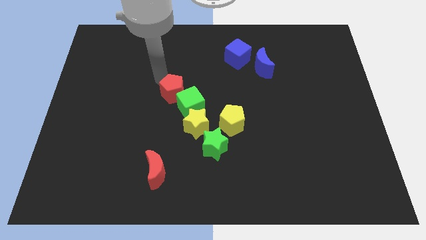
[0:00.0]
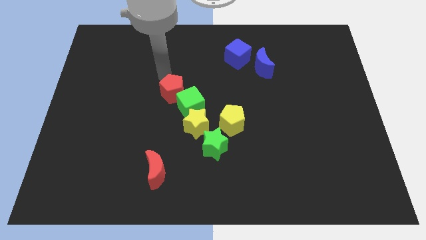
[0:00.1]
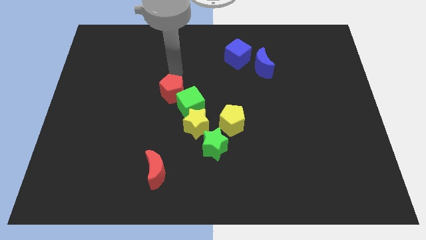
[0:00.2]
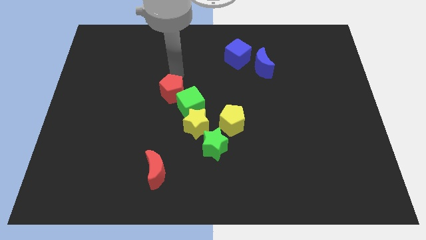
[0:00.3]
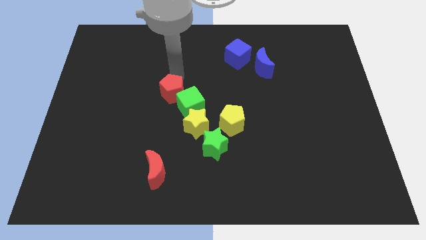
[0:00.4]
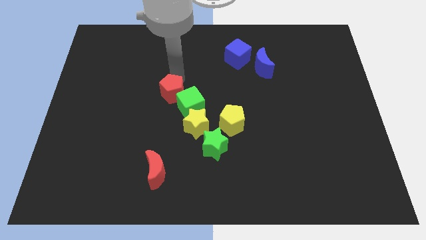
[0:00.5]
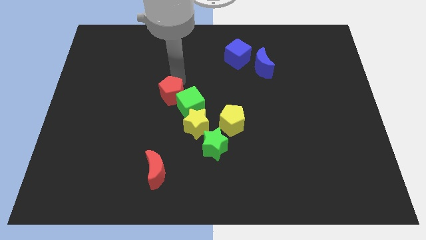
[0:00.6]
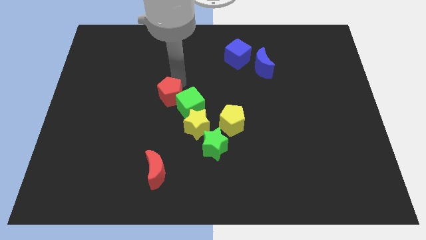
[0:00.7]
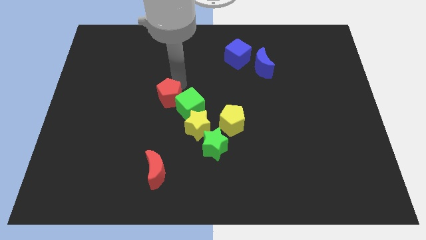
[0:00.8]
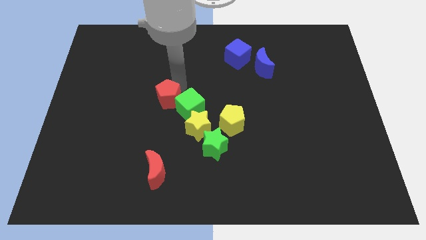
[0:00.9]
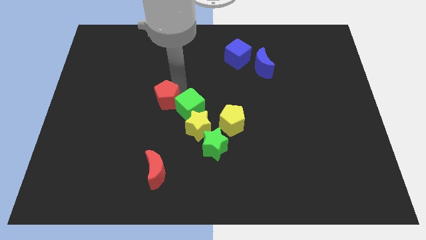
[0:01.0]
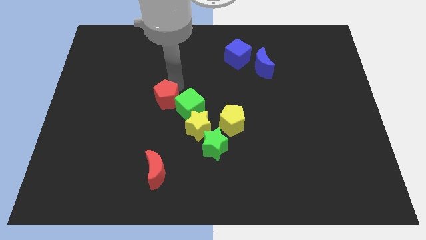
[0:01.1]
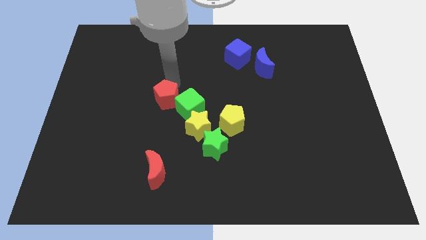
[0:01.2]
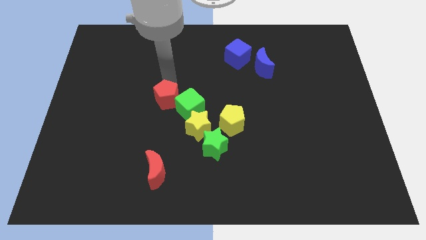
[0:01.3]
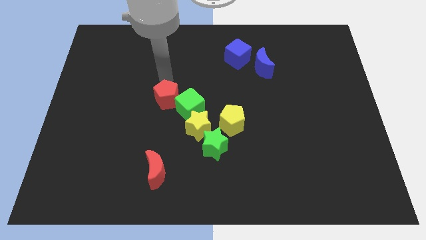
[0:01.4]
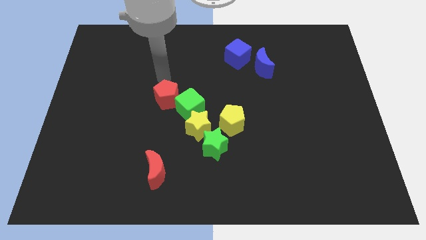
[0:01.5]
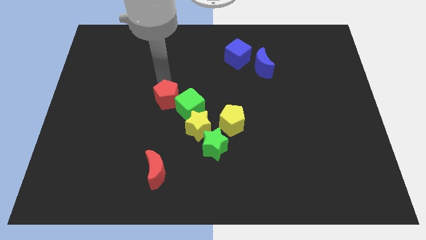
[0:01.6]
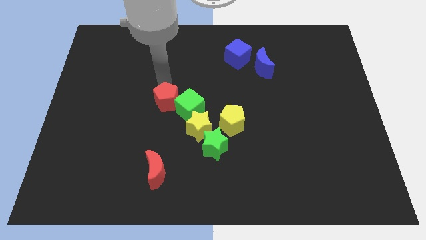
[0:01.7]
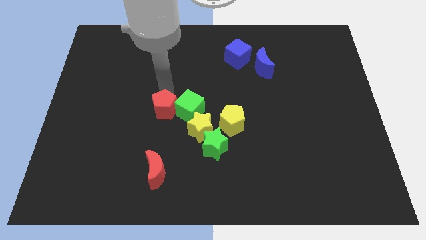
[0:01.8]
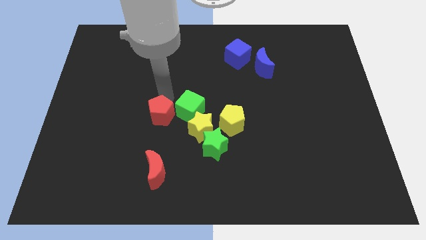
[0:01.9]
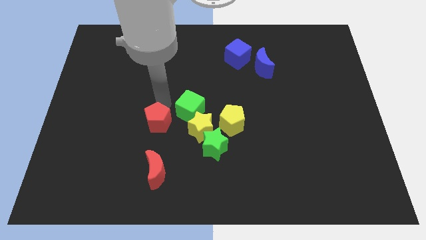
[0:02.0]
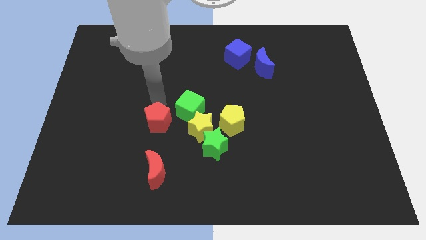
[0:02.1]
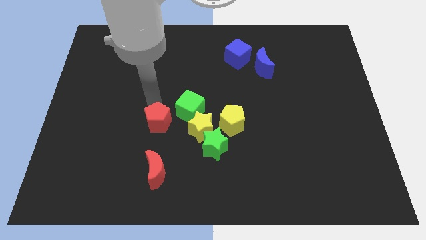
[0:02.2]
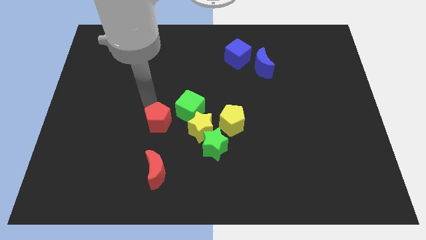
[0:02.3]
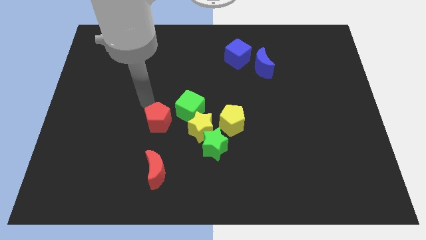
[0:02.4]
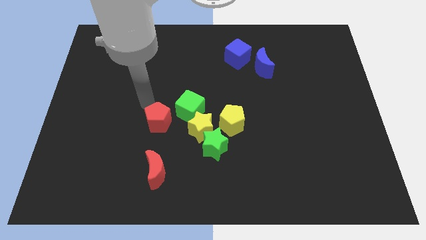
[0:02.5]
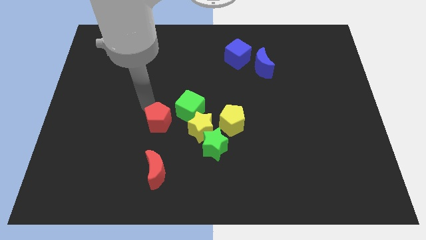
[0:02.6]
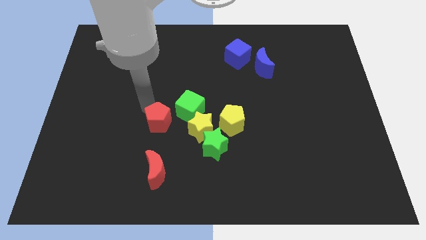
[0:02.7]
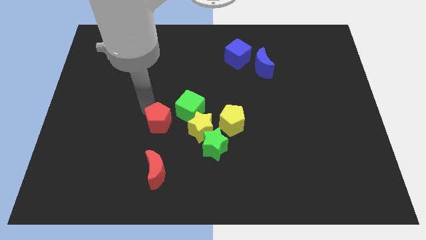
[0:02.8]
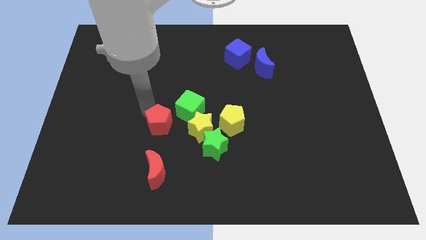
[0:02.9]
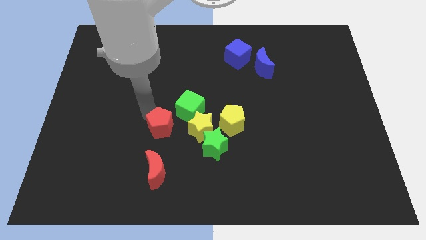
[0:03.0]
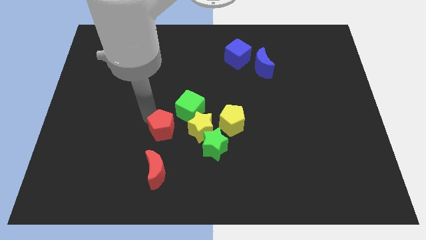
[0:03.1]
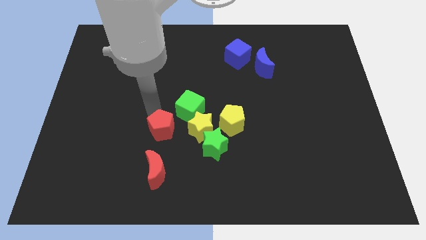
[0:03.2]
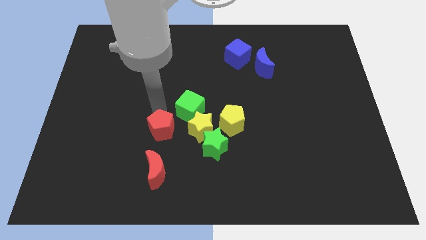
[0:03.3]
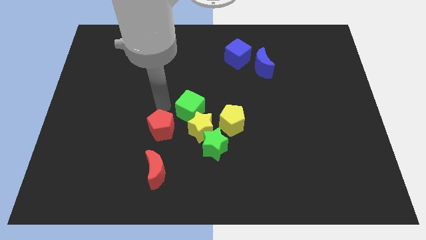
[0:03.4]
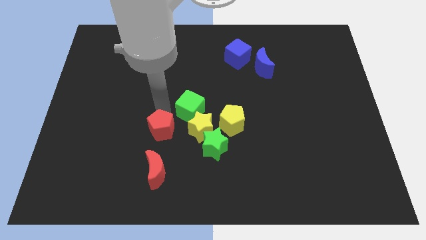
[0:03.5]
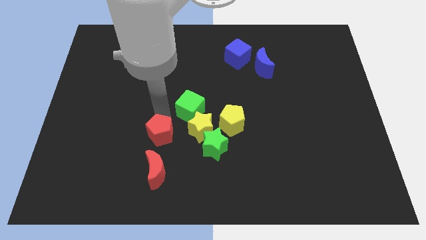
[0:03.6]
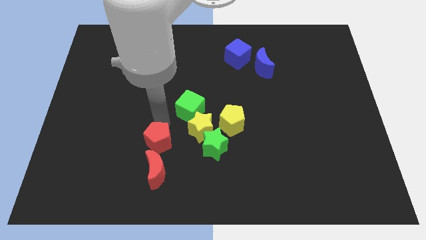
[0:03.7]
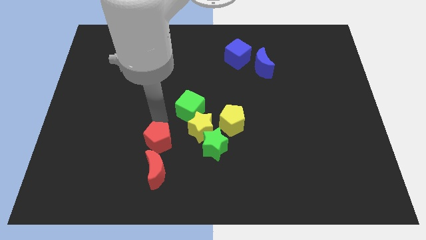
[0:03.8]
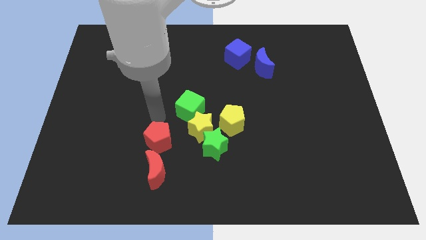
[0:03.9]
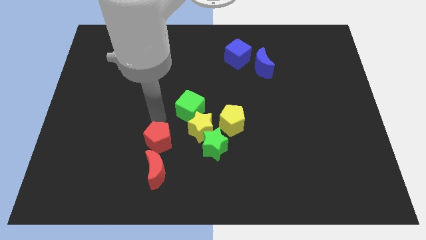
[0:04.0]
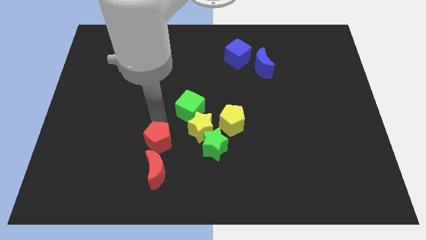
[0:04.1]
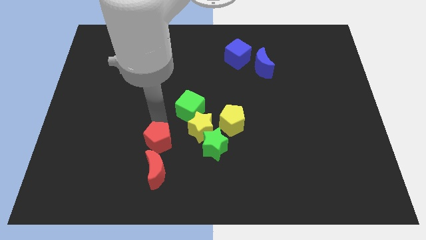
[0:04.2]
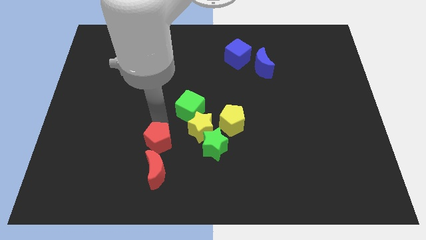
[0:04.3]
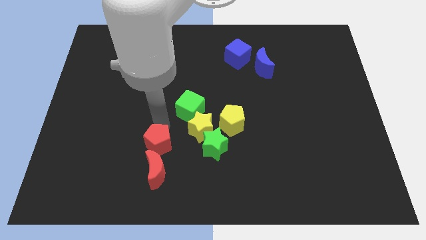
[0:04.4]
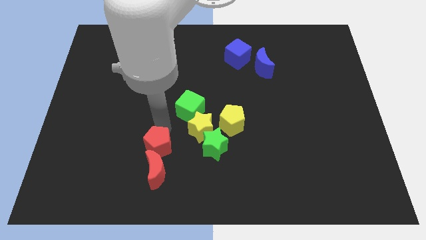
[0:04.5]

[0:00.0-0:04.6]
move the red pentagon to the red moon

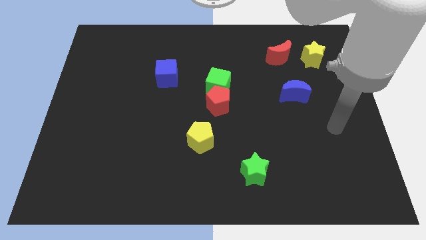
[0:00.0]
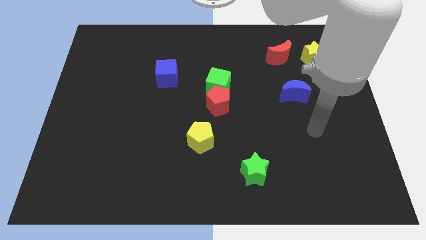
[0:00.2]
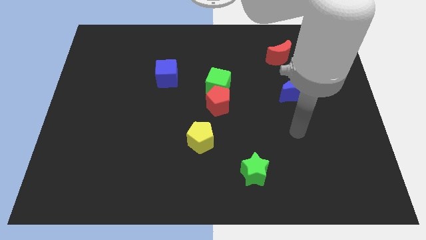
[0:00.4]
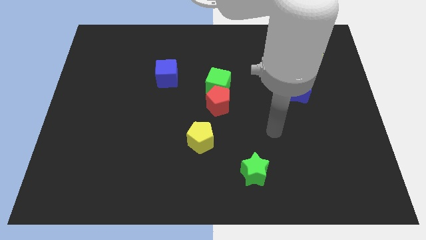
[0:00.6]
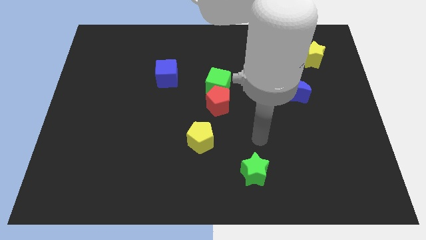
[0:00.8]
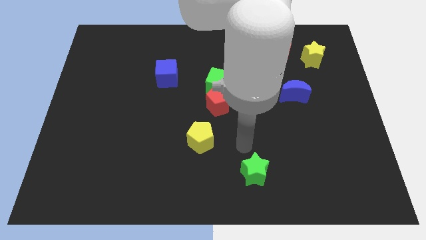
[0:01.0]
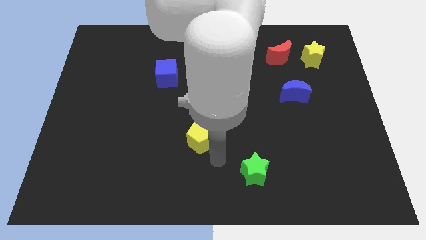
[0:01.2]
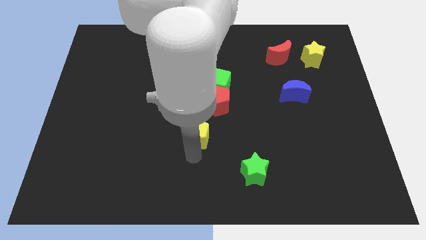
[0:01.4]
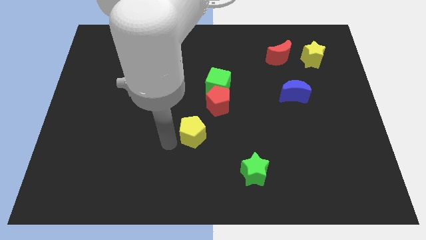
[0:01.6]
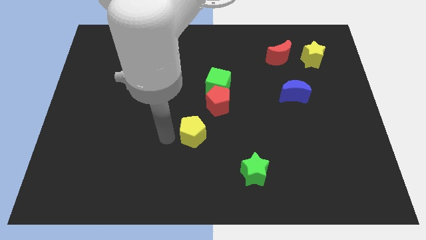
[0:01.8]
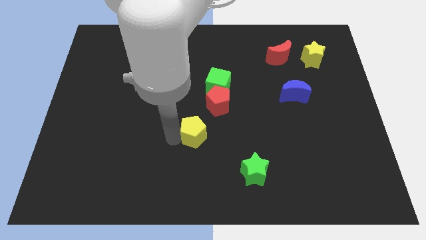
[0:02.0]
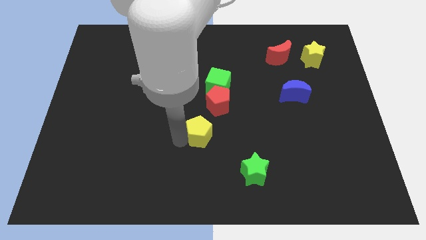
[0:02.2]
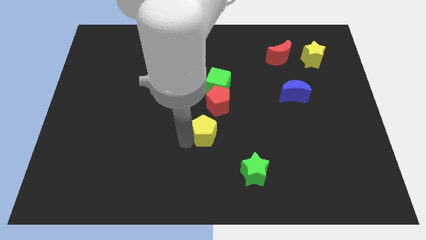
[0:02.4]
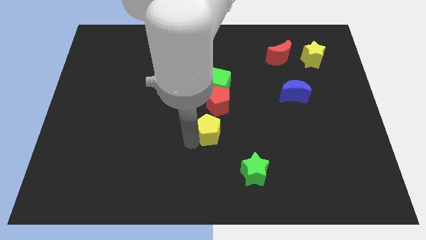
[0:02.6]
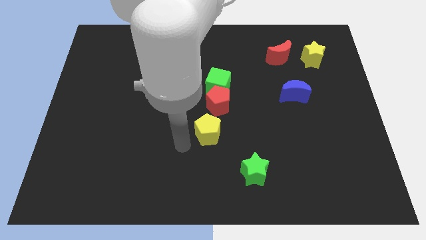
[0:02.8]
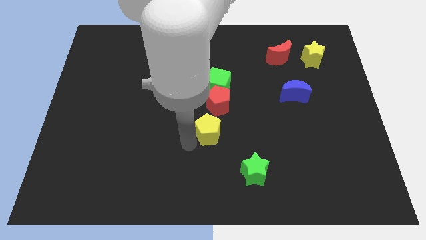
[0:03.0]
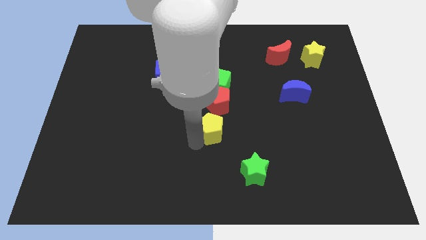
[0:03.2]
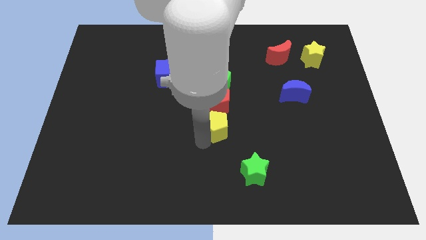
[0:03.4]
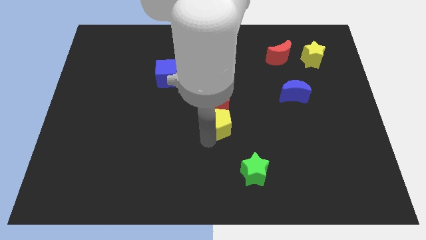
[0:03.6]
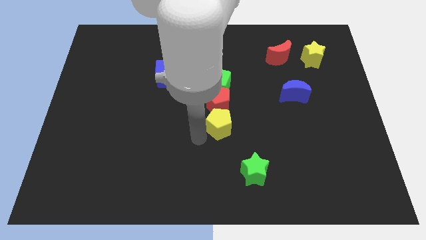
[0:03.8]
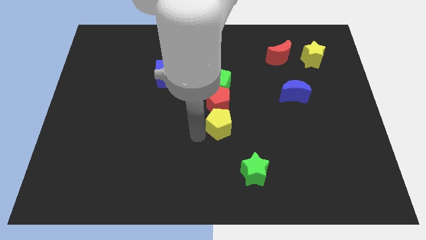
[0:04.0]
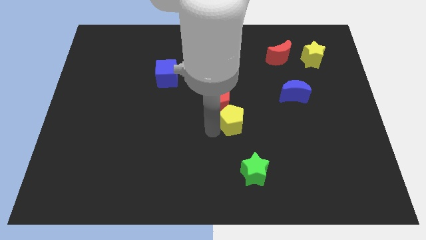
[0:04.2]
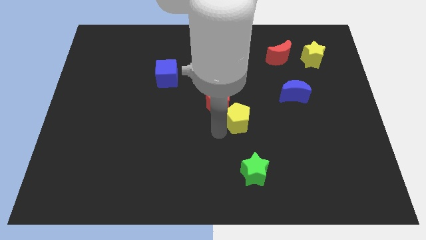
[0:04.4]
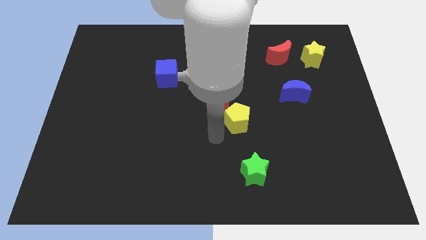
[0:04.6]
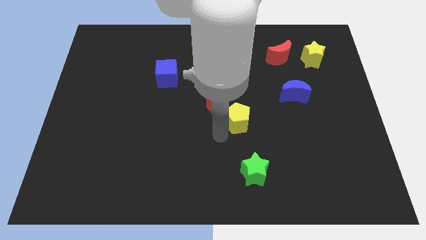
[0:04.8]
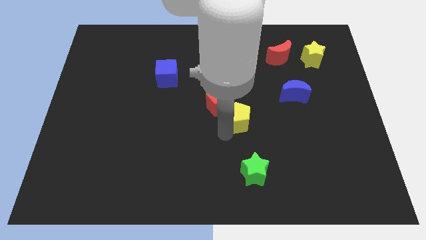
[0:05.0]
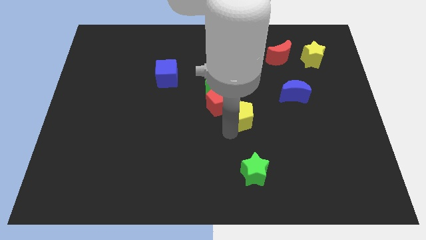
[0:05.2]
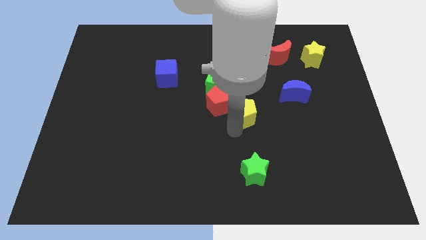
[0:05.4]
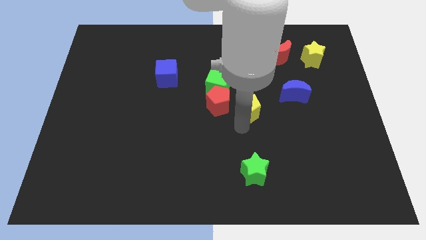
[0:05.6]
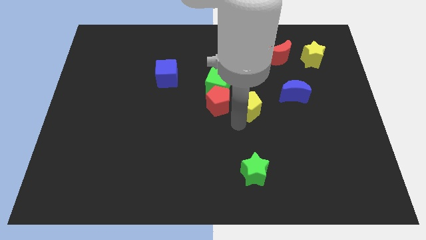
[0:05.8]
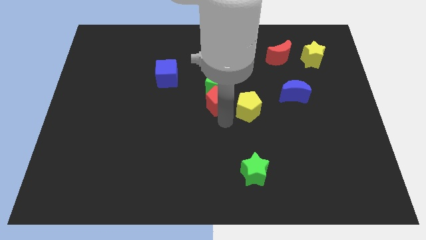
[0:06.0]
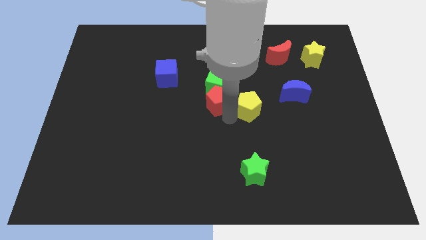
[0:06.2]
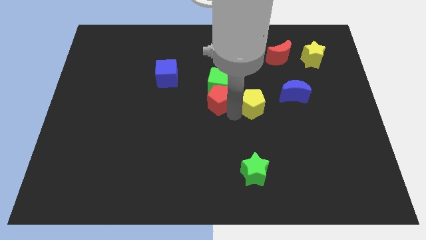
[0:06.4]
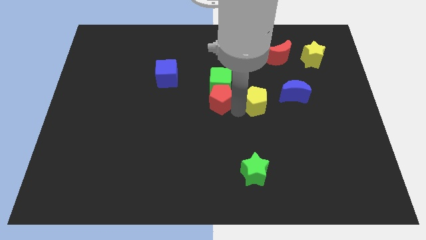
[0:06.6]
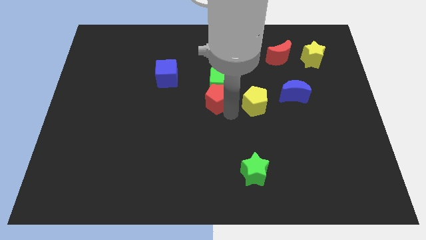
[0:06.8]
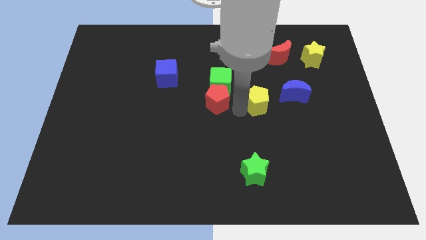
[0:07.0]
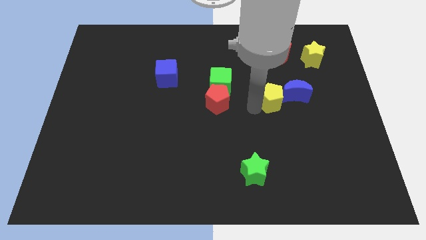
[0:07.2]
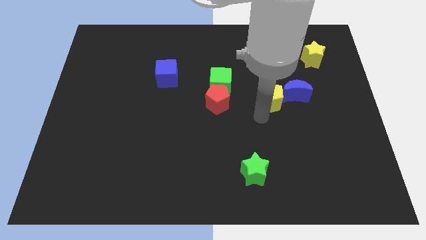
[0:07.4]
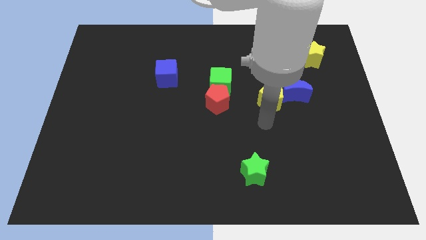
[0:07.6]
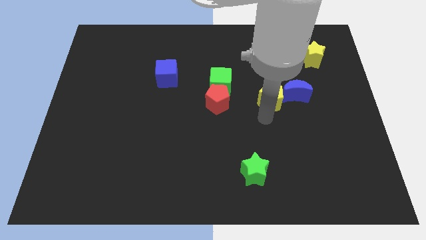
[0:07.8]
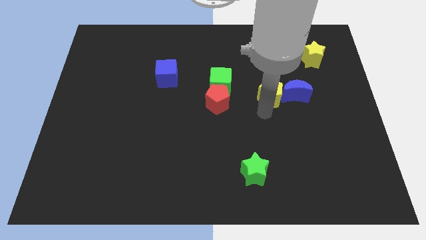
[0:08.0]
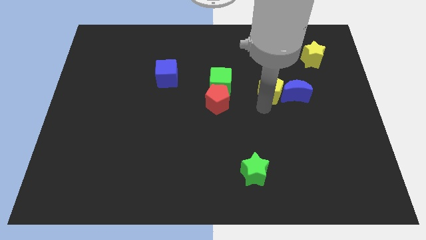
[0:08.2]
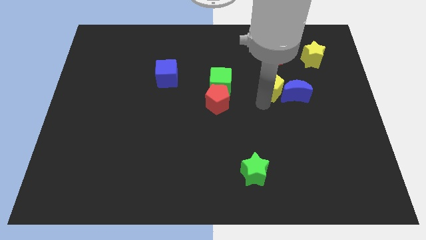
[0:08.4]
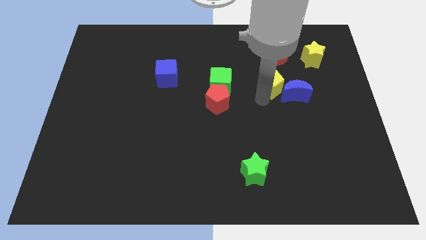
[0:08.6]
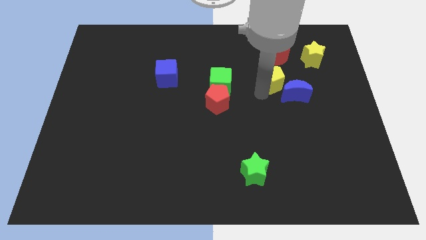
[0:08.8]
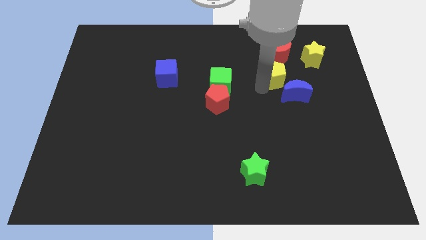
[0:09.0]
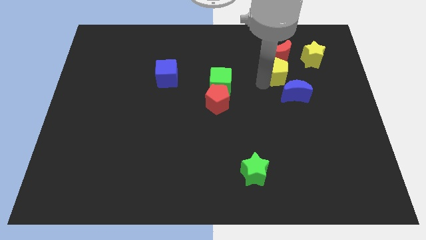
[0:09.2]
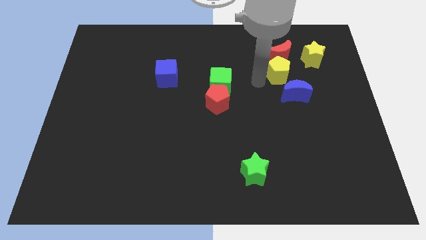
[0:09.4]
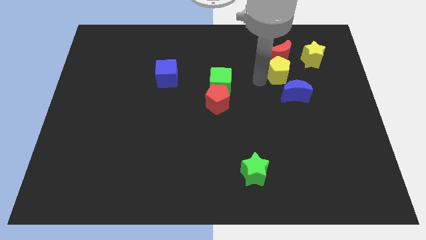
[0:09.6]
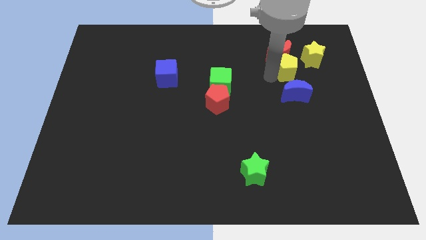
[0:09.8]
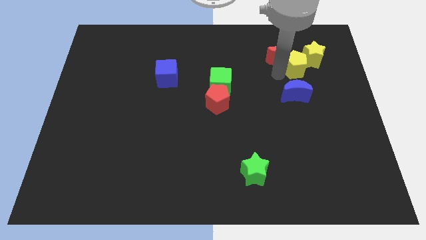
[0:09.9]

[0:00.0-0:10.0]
put the yellow pentagon to the yellow star
